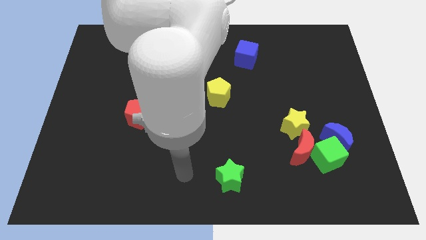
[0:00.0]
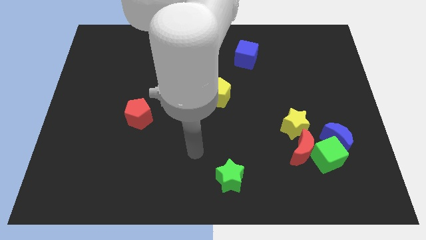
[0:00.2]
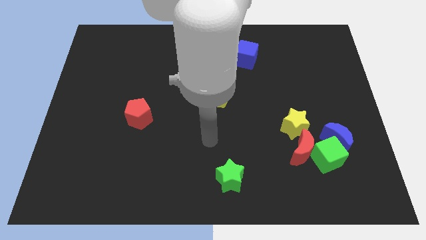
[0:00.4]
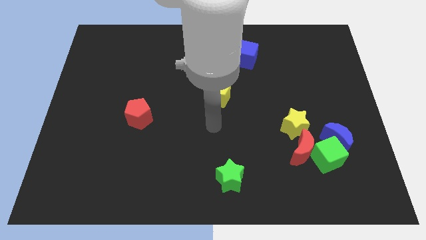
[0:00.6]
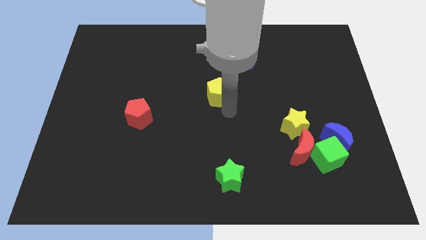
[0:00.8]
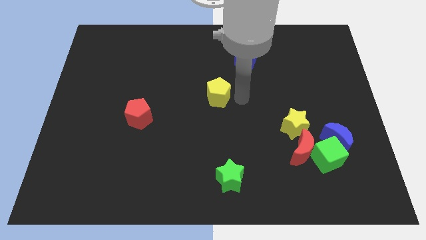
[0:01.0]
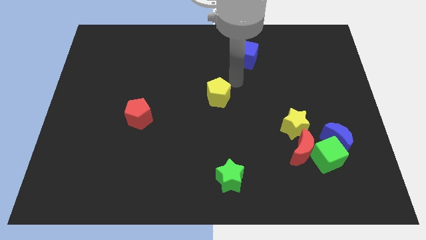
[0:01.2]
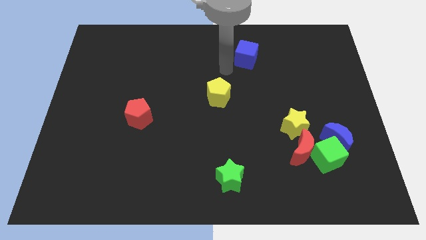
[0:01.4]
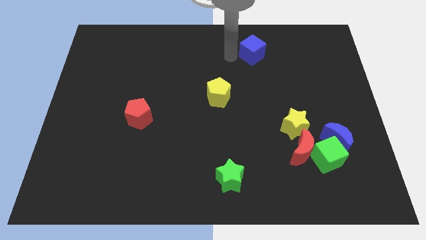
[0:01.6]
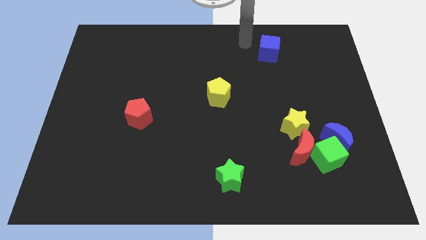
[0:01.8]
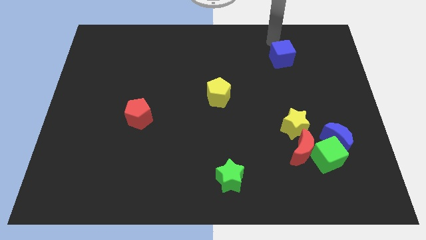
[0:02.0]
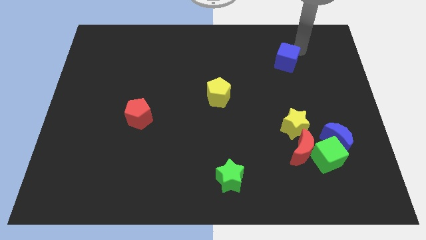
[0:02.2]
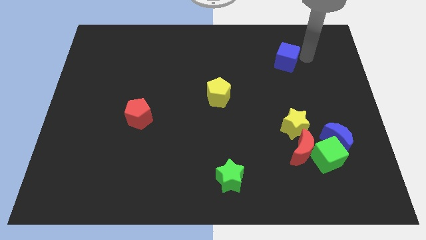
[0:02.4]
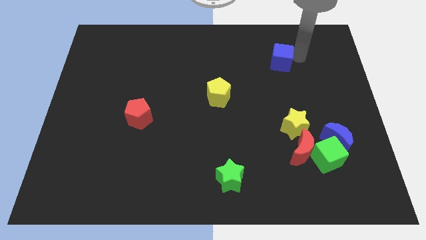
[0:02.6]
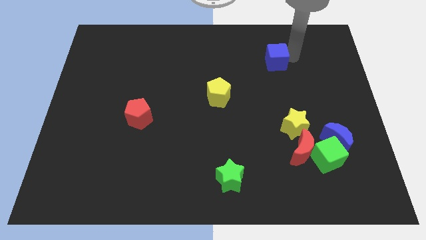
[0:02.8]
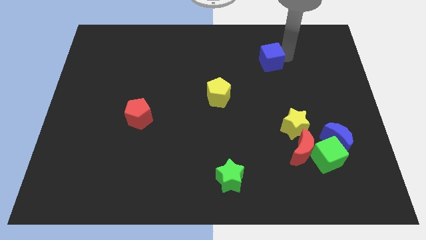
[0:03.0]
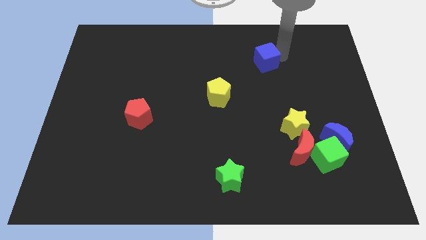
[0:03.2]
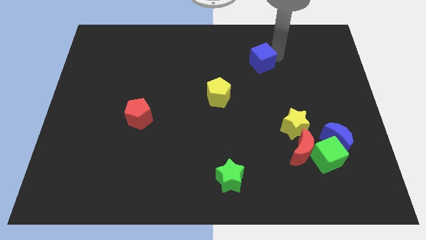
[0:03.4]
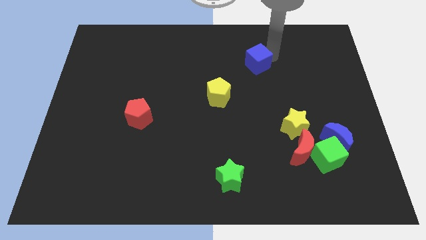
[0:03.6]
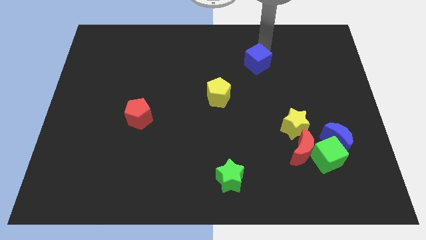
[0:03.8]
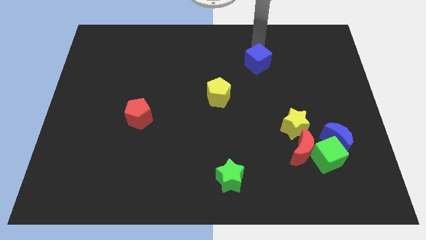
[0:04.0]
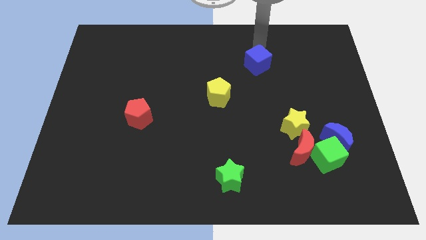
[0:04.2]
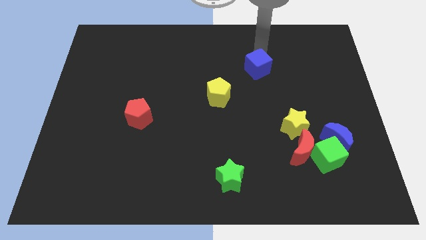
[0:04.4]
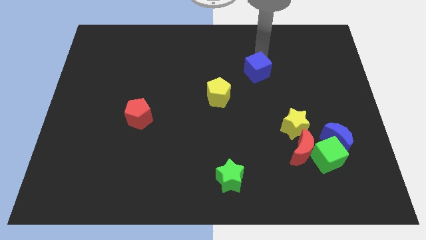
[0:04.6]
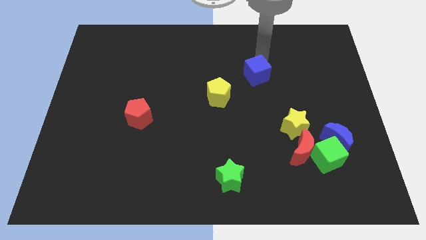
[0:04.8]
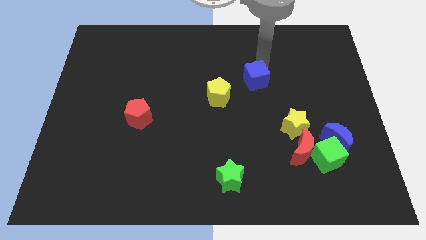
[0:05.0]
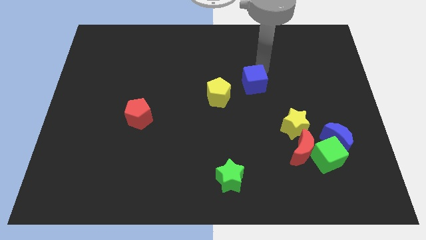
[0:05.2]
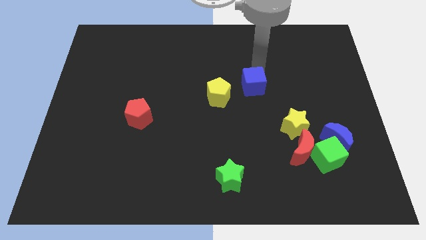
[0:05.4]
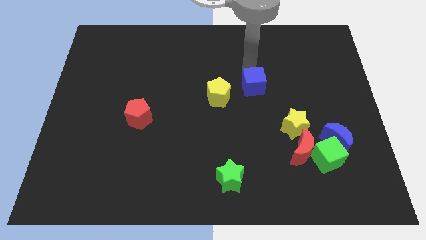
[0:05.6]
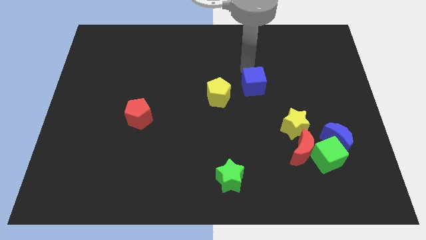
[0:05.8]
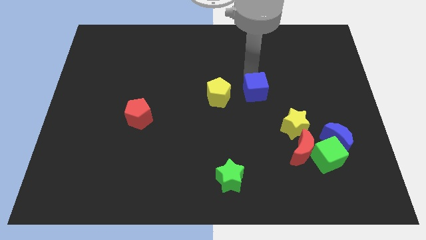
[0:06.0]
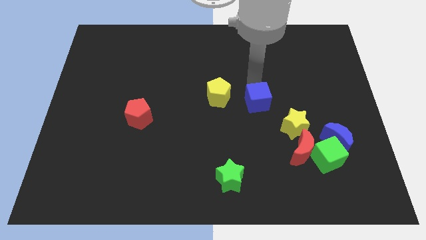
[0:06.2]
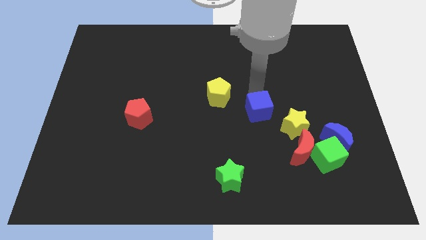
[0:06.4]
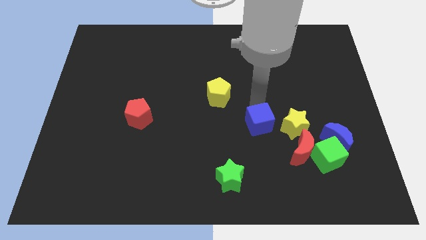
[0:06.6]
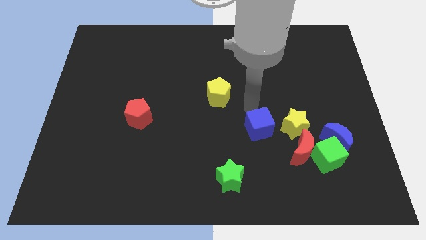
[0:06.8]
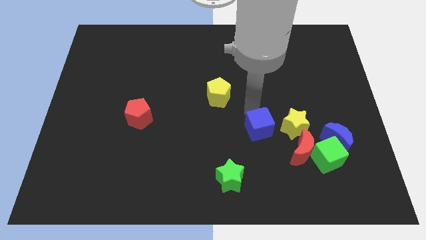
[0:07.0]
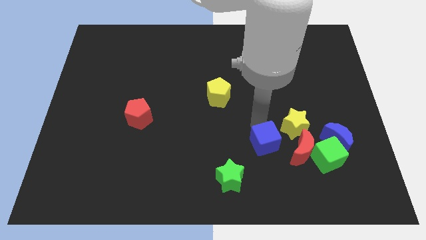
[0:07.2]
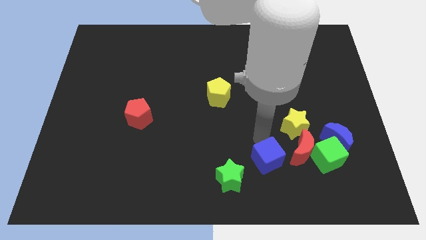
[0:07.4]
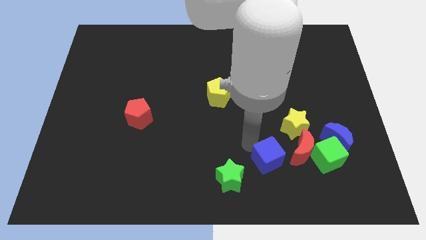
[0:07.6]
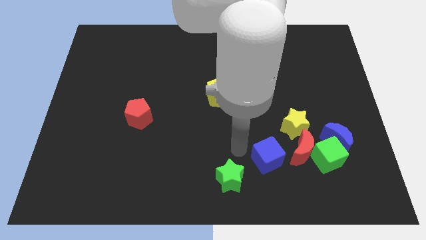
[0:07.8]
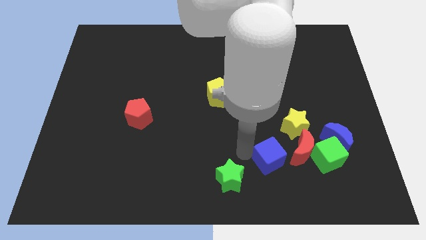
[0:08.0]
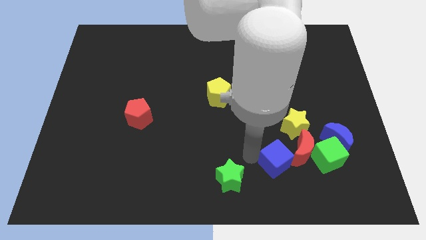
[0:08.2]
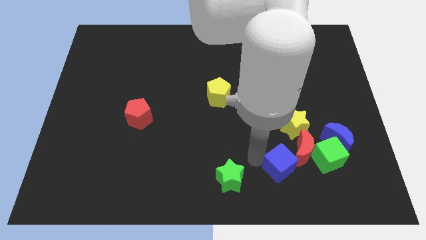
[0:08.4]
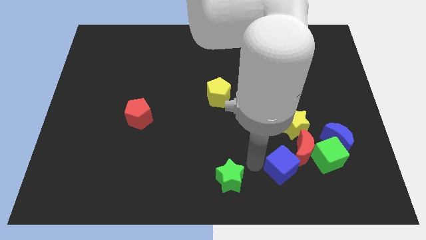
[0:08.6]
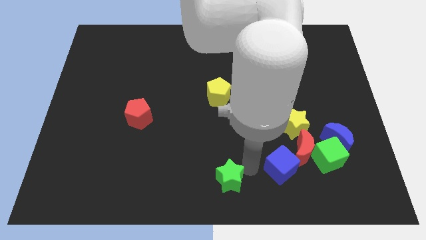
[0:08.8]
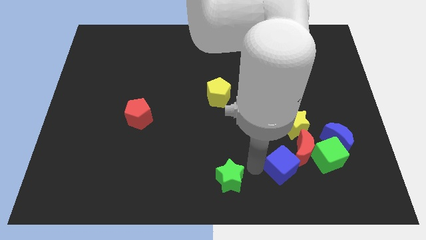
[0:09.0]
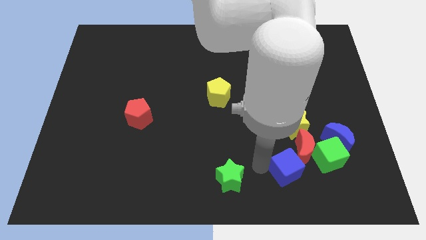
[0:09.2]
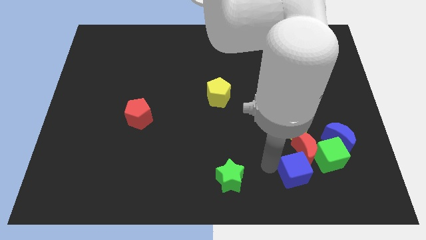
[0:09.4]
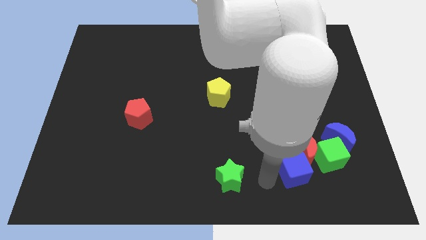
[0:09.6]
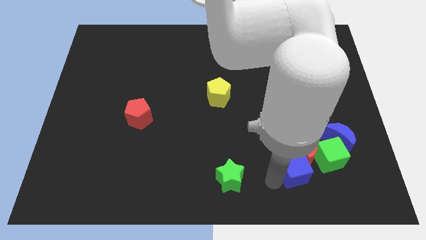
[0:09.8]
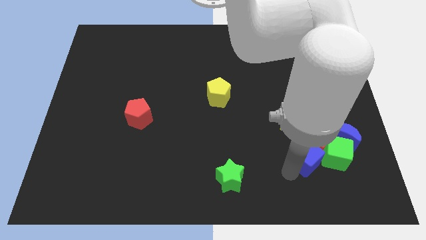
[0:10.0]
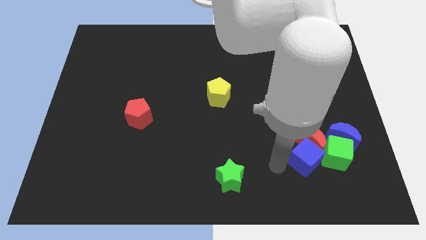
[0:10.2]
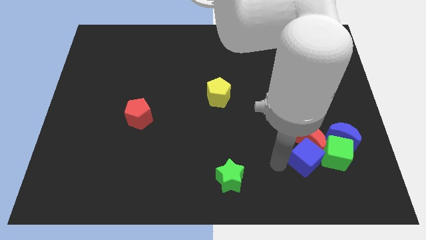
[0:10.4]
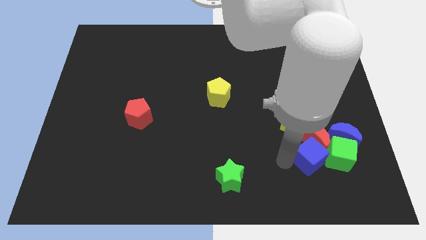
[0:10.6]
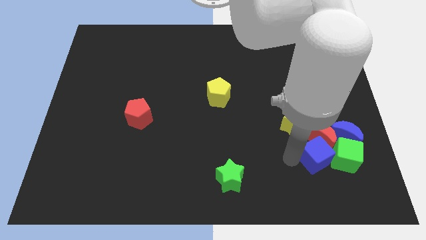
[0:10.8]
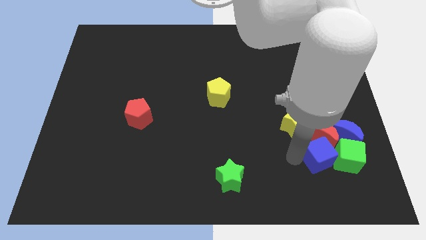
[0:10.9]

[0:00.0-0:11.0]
slide the blue cube towards the green cube

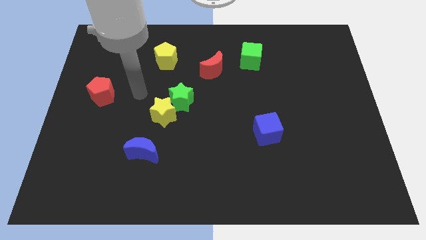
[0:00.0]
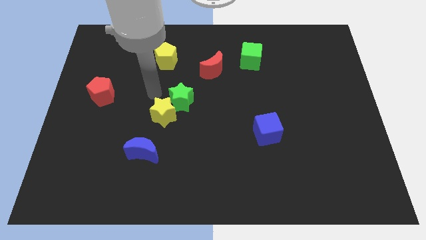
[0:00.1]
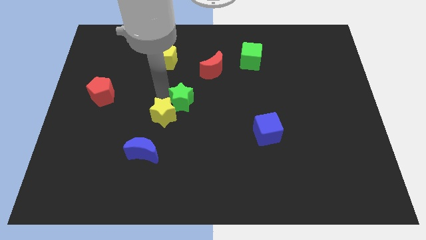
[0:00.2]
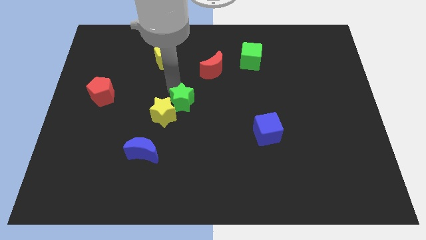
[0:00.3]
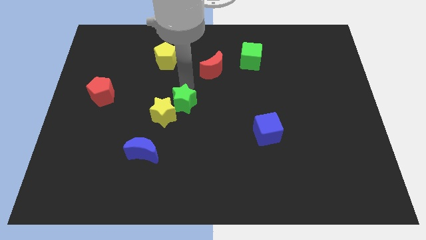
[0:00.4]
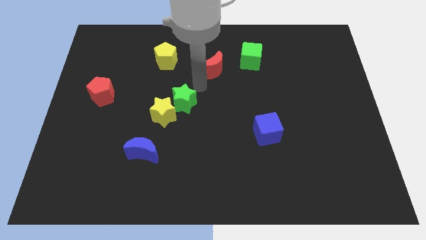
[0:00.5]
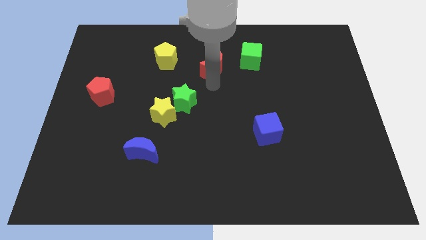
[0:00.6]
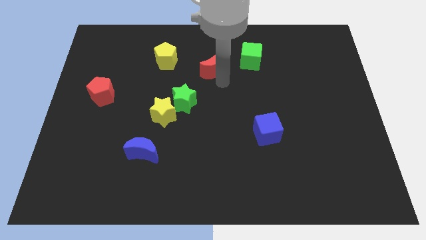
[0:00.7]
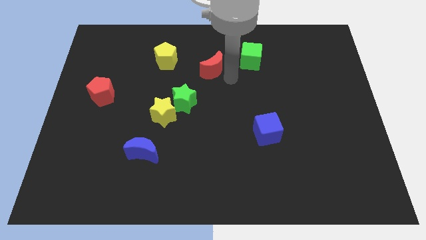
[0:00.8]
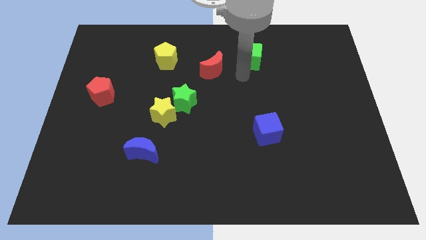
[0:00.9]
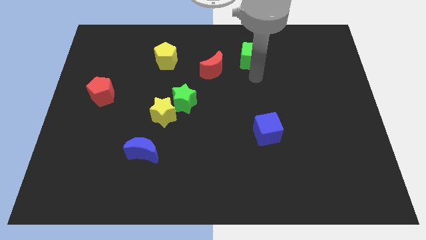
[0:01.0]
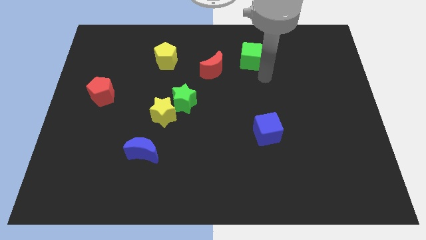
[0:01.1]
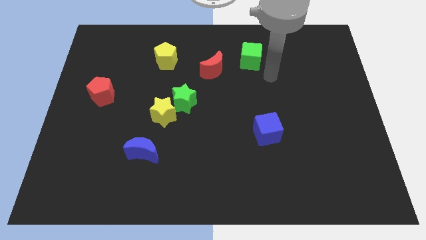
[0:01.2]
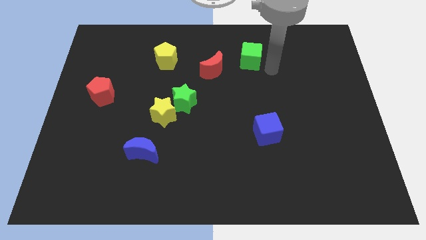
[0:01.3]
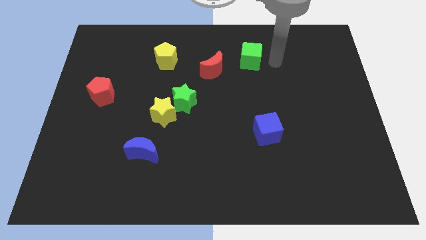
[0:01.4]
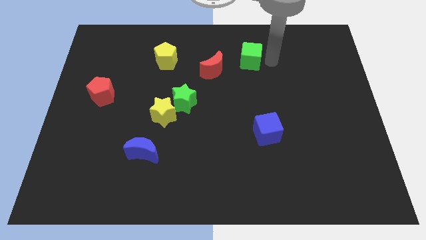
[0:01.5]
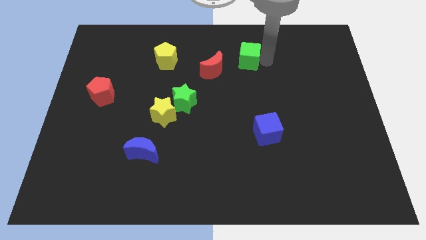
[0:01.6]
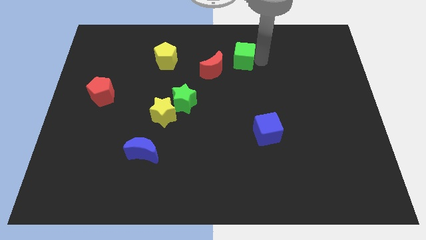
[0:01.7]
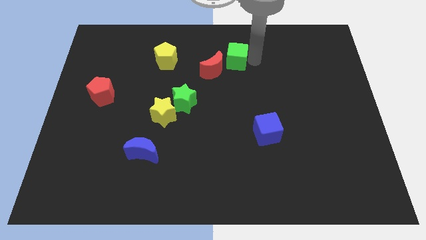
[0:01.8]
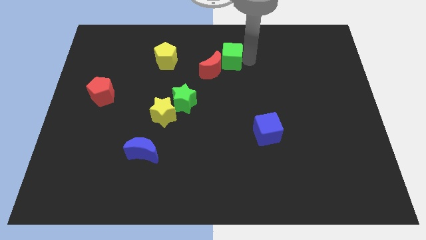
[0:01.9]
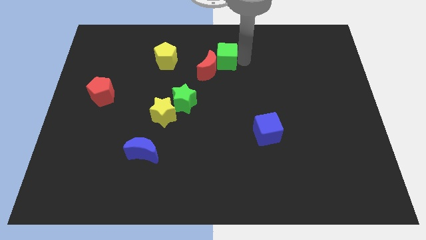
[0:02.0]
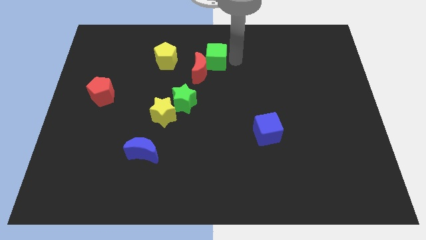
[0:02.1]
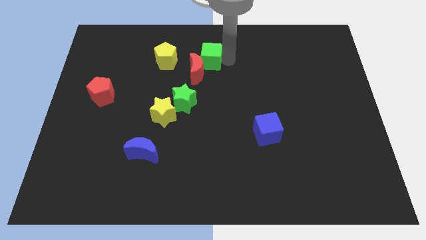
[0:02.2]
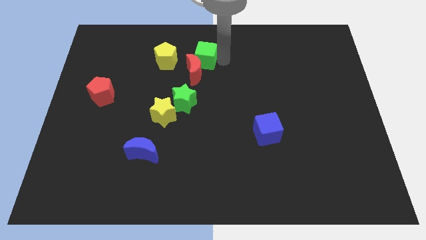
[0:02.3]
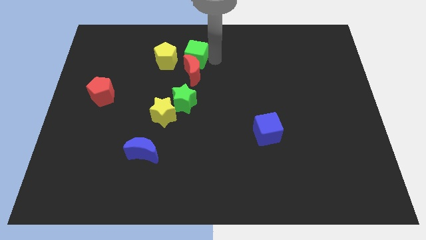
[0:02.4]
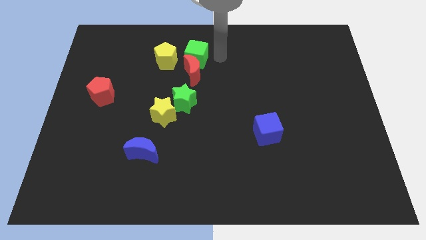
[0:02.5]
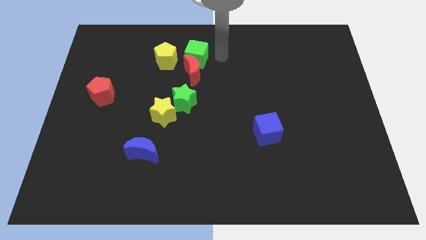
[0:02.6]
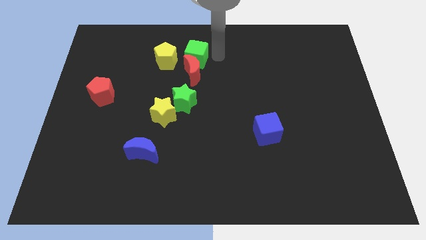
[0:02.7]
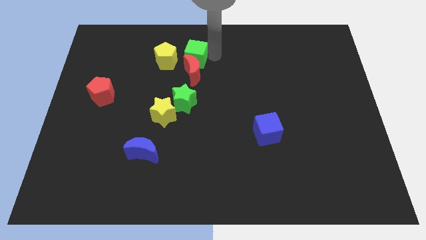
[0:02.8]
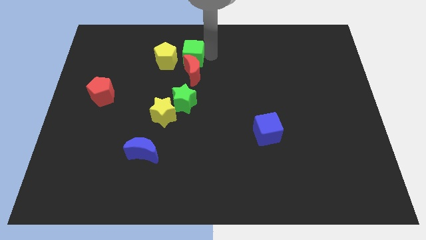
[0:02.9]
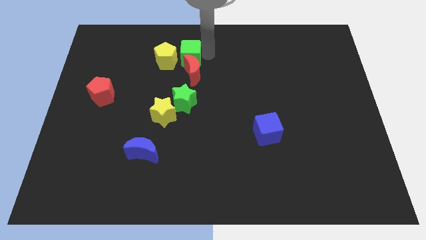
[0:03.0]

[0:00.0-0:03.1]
slide the green cube close to the yellow pentagon
